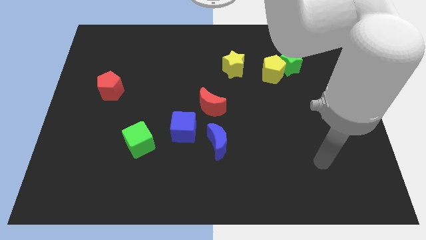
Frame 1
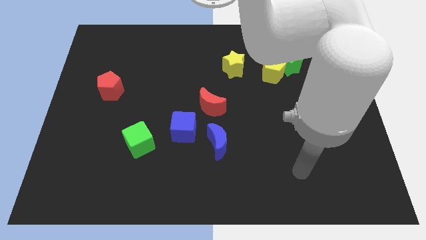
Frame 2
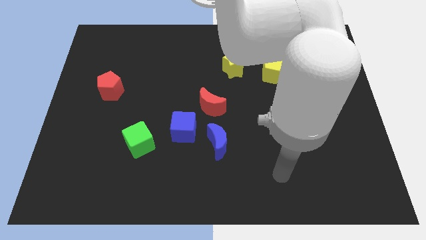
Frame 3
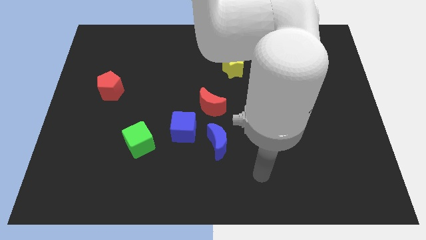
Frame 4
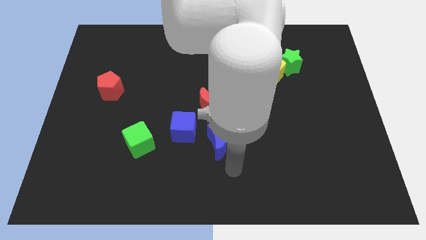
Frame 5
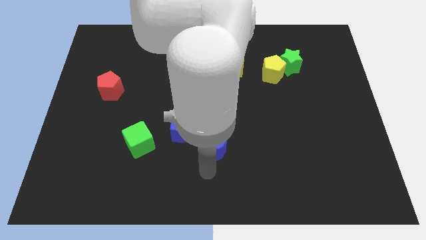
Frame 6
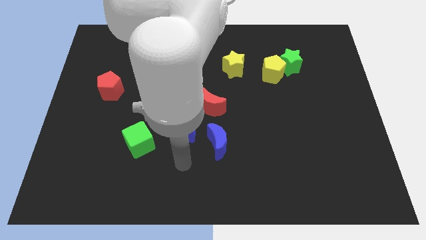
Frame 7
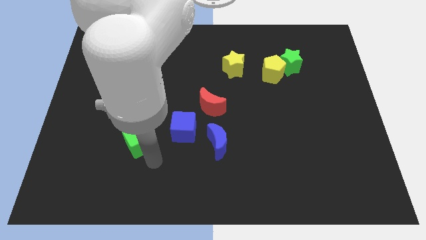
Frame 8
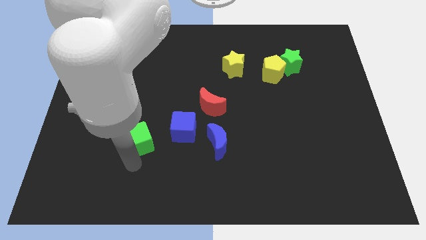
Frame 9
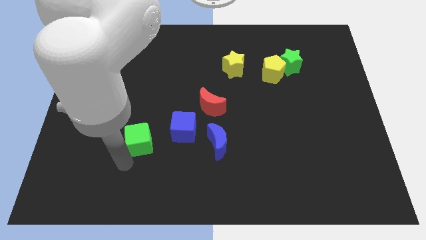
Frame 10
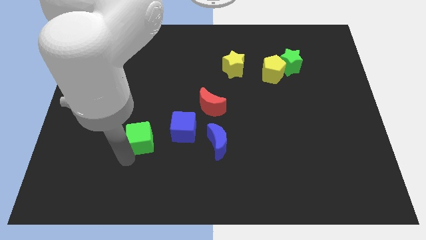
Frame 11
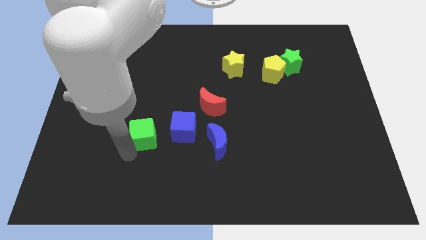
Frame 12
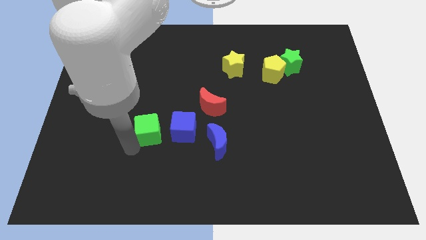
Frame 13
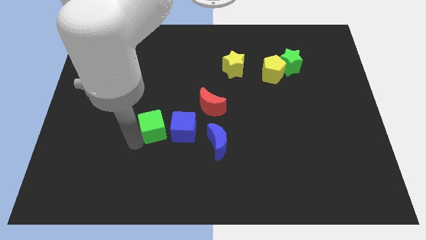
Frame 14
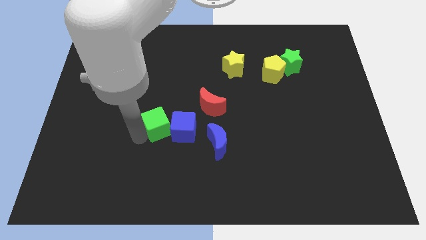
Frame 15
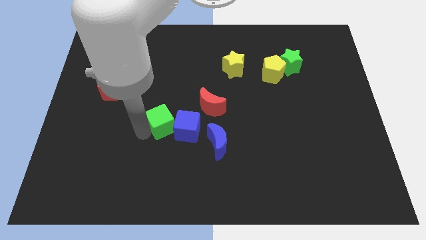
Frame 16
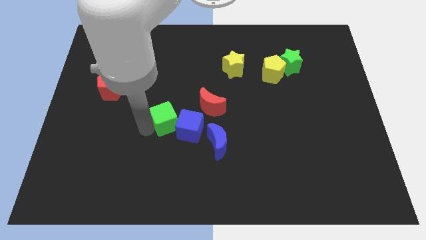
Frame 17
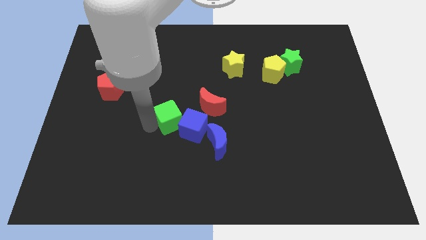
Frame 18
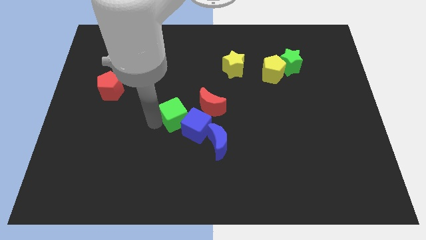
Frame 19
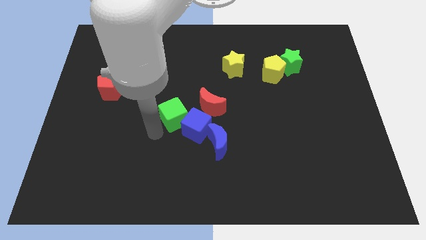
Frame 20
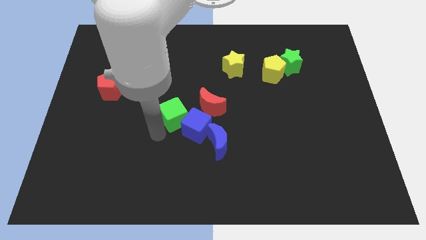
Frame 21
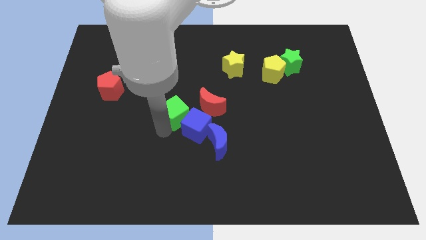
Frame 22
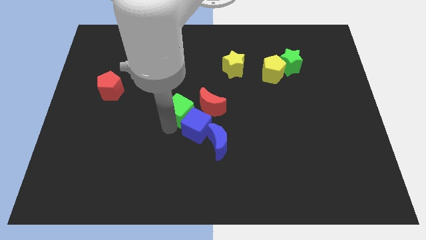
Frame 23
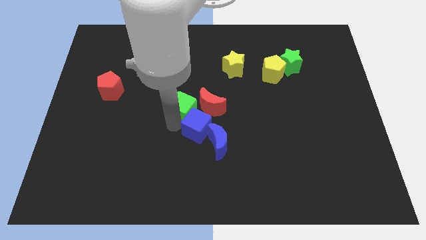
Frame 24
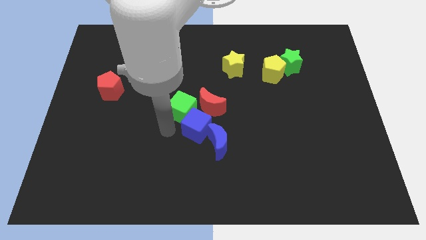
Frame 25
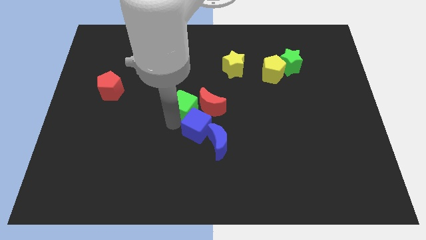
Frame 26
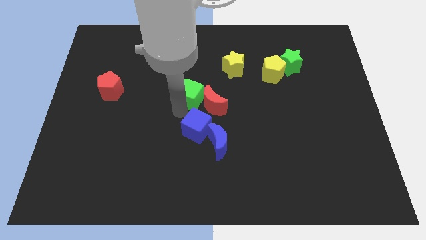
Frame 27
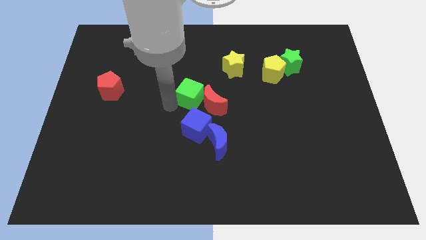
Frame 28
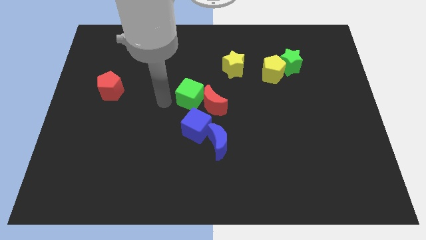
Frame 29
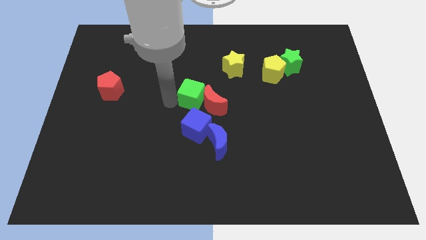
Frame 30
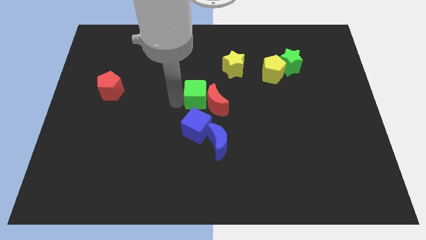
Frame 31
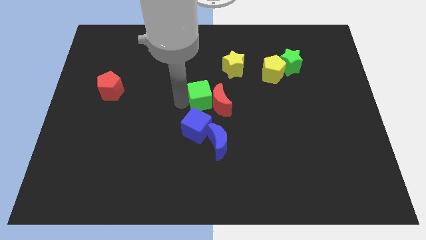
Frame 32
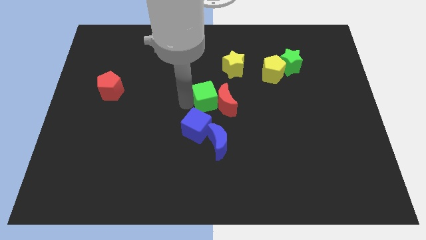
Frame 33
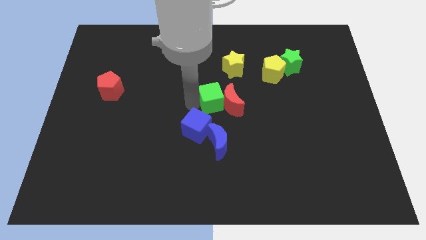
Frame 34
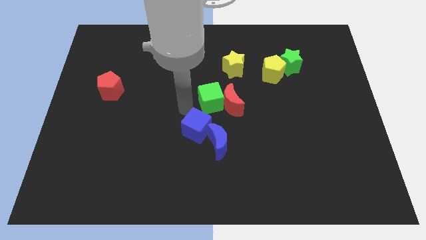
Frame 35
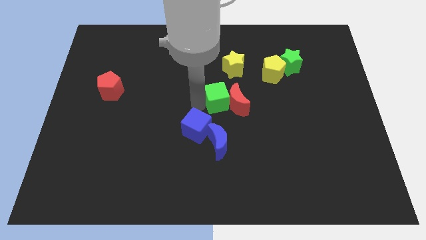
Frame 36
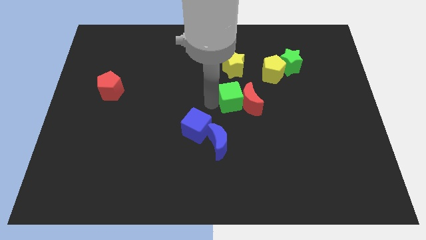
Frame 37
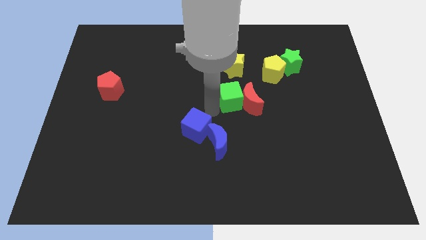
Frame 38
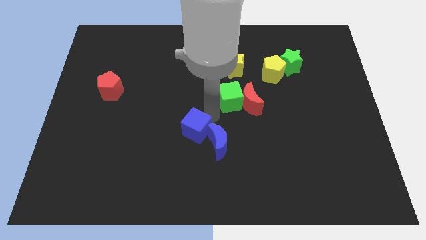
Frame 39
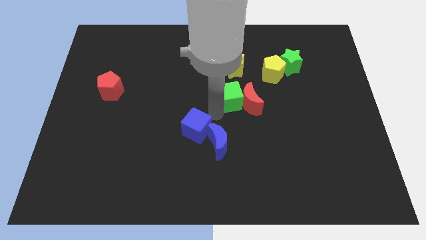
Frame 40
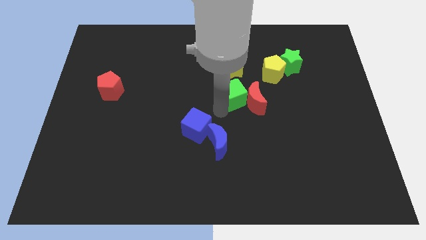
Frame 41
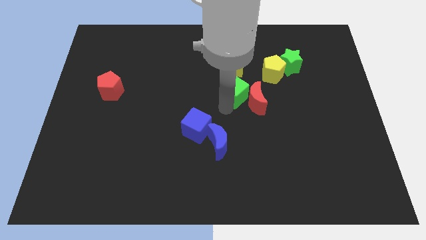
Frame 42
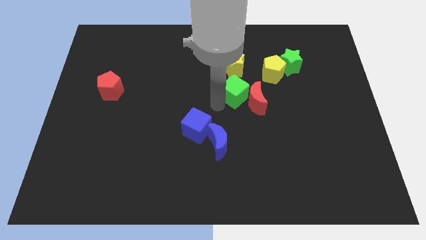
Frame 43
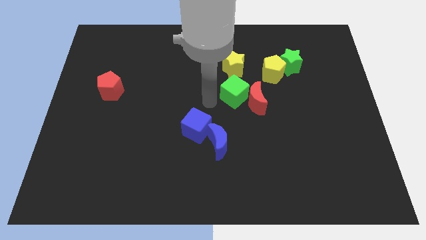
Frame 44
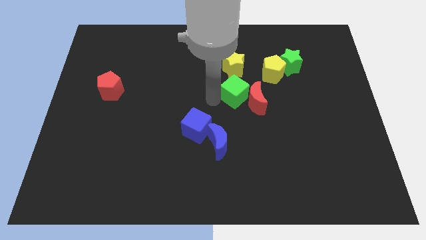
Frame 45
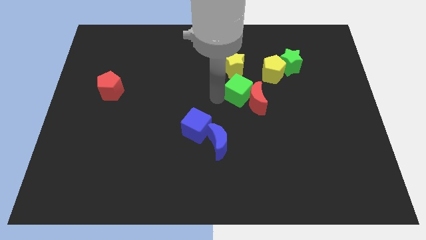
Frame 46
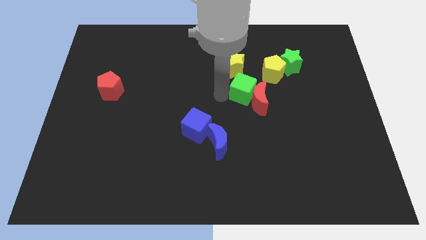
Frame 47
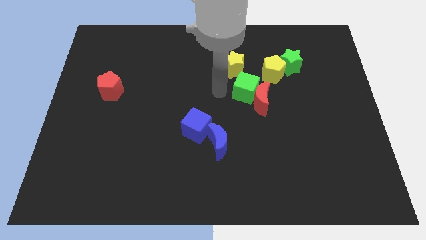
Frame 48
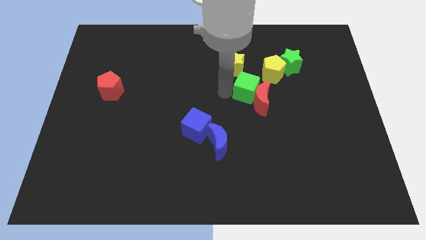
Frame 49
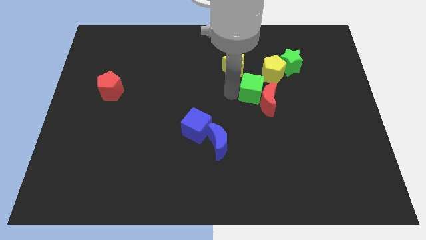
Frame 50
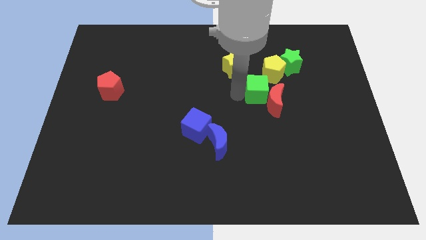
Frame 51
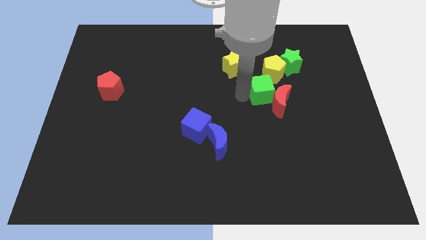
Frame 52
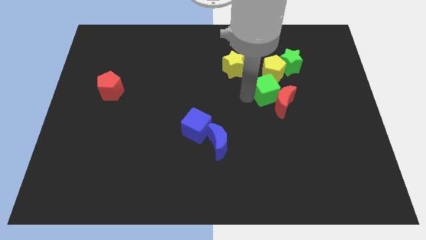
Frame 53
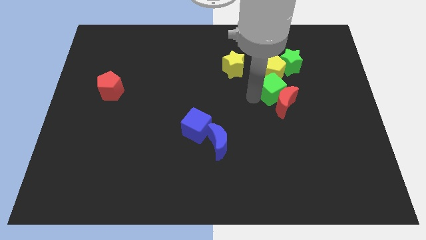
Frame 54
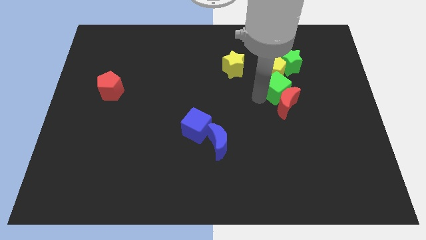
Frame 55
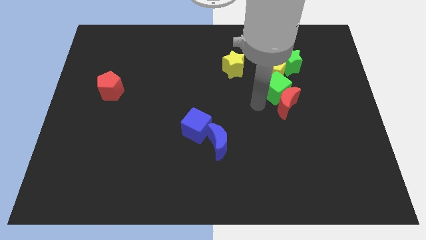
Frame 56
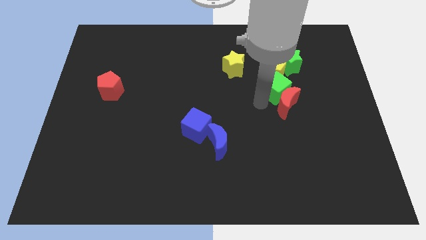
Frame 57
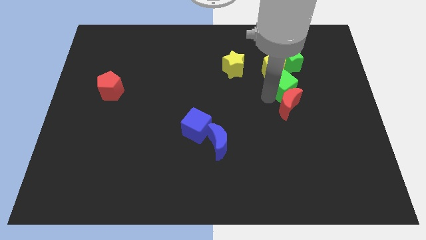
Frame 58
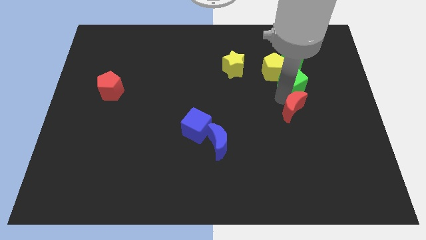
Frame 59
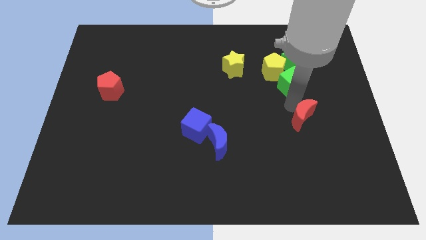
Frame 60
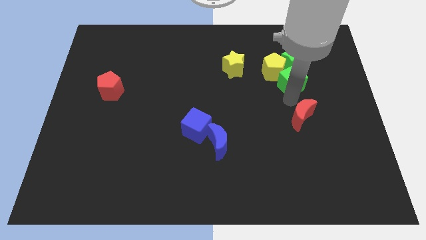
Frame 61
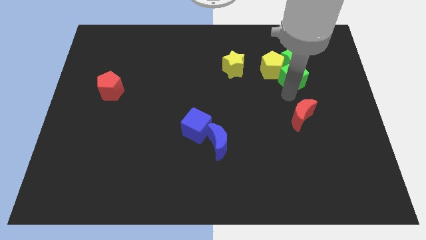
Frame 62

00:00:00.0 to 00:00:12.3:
move the green cube close to the green star

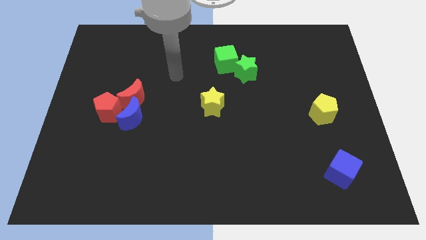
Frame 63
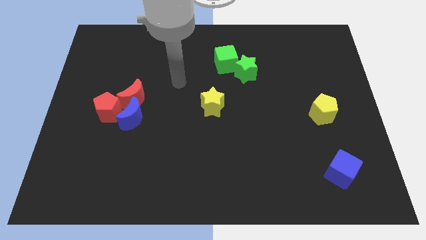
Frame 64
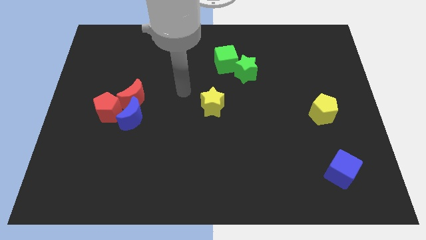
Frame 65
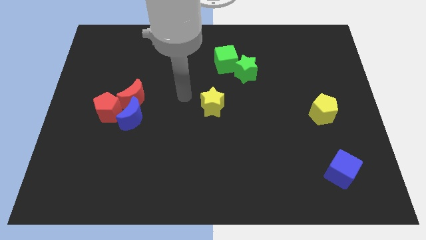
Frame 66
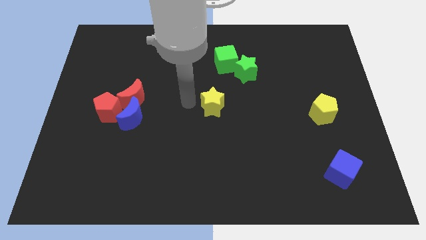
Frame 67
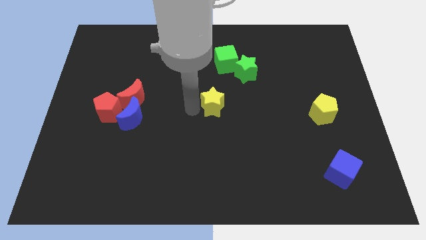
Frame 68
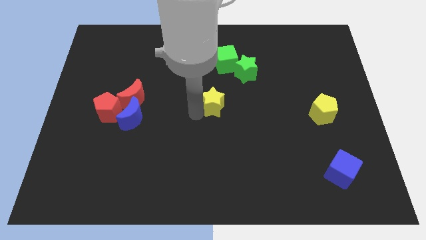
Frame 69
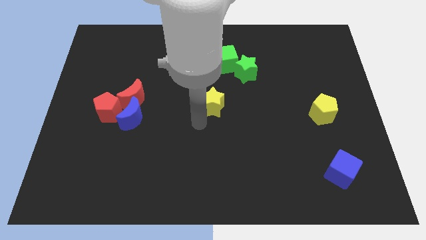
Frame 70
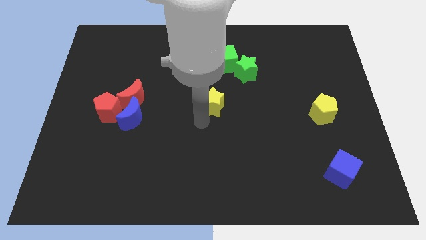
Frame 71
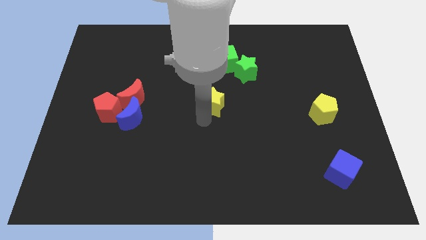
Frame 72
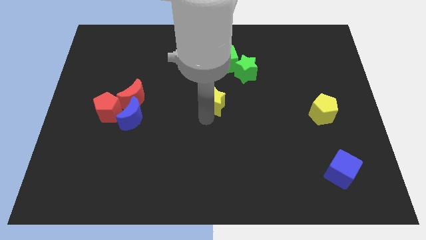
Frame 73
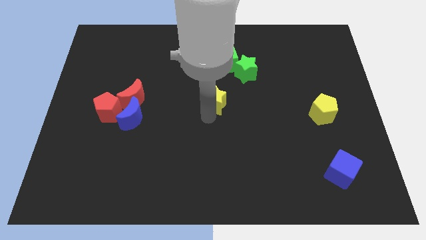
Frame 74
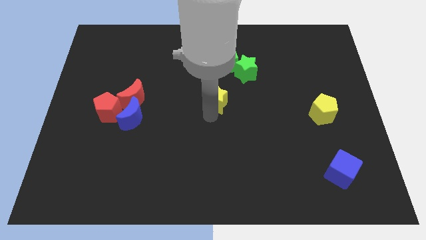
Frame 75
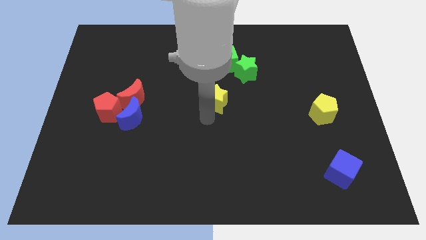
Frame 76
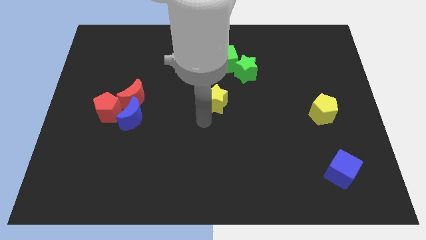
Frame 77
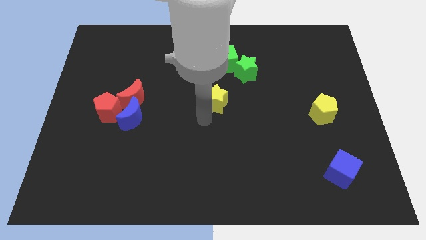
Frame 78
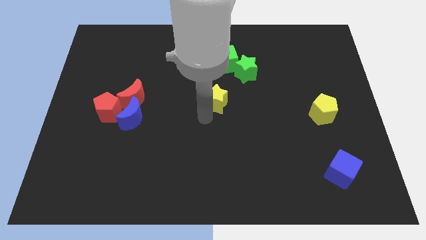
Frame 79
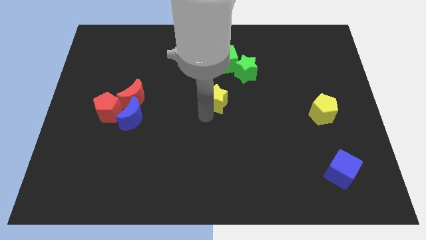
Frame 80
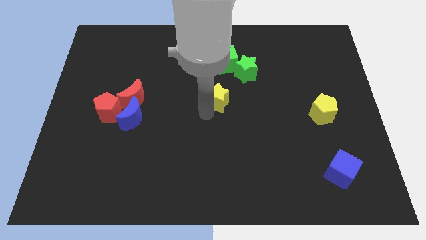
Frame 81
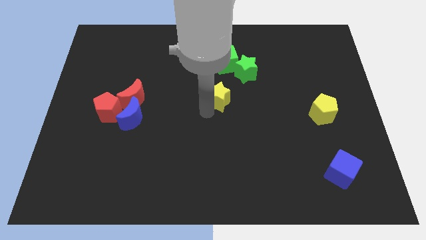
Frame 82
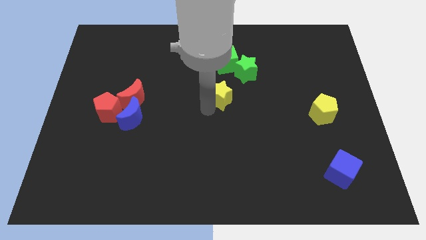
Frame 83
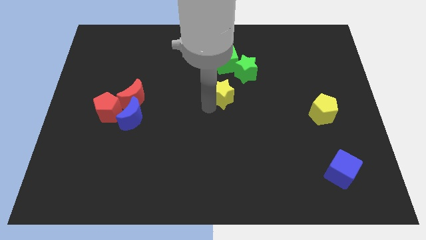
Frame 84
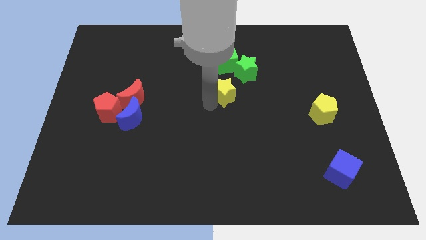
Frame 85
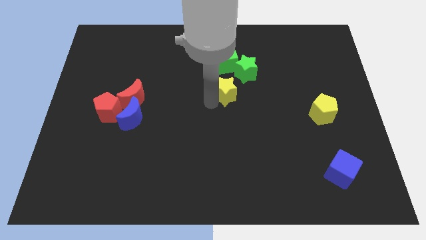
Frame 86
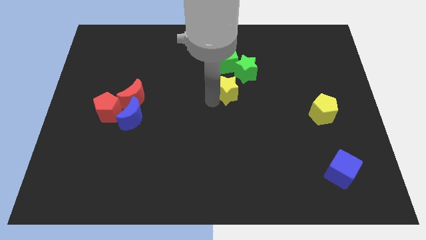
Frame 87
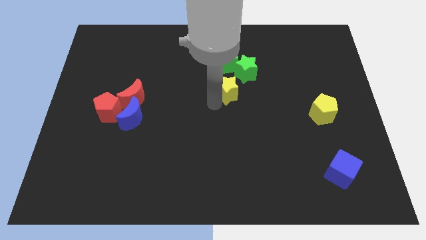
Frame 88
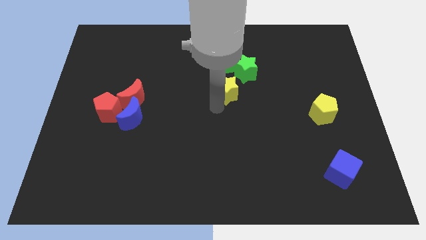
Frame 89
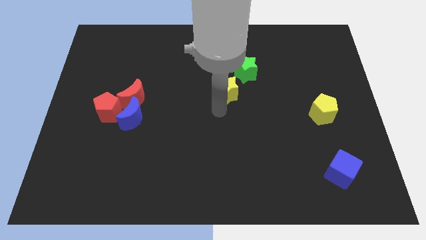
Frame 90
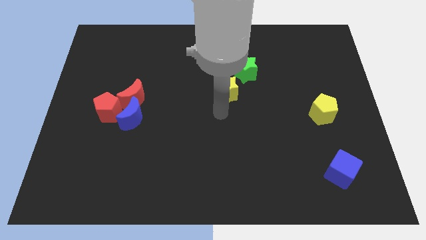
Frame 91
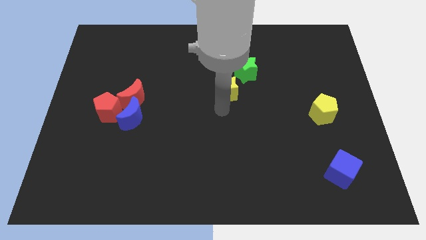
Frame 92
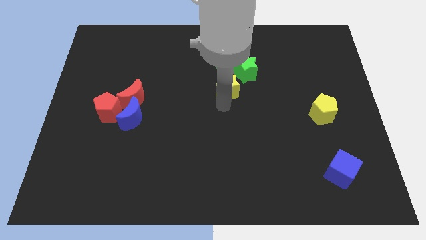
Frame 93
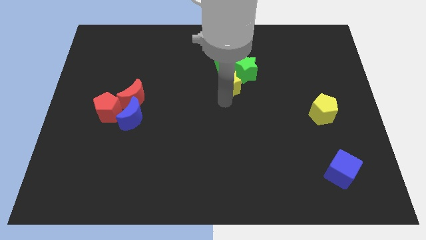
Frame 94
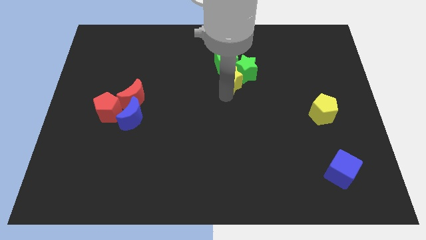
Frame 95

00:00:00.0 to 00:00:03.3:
slide the yellow star close to the green star
